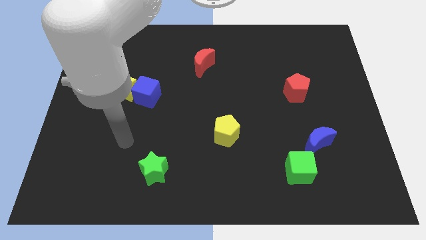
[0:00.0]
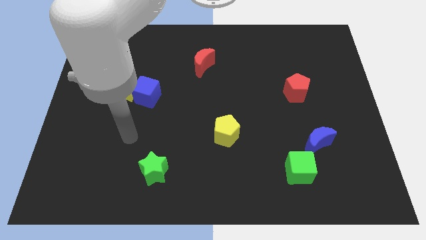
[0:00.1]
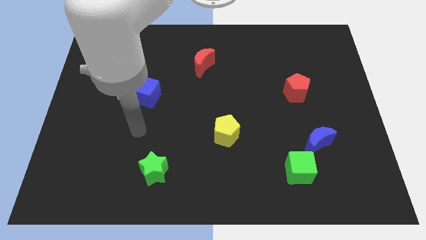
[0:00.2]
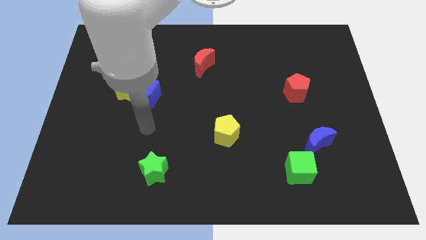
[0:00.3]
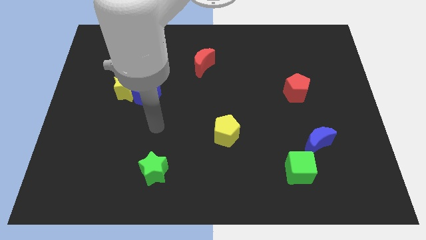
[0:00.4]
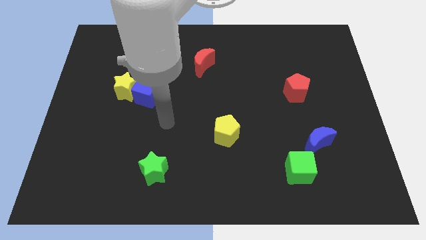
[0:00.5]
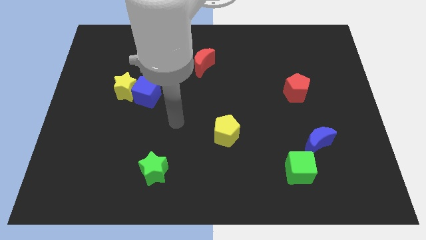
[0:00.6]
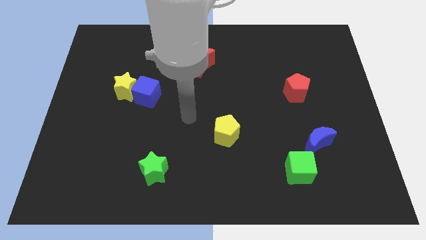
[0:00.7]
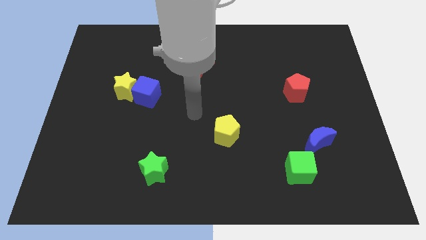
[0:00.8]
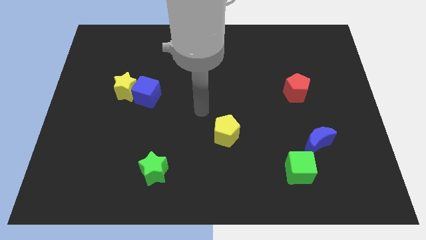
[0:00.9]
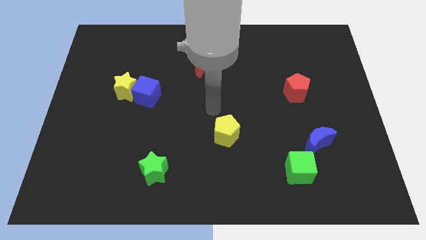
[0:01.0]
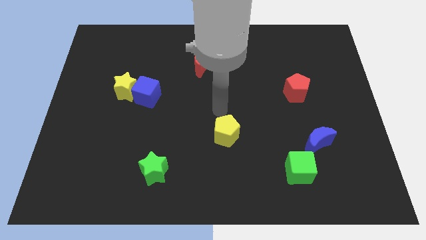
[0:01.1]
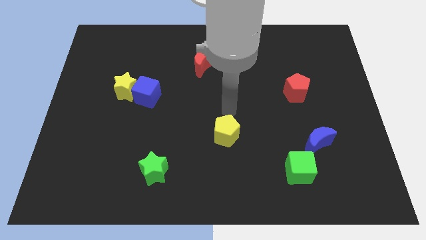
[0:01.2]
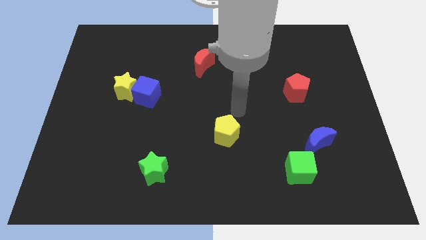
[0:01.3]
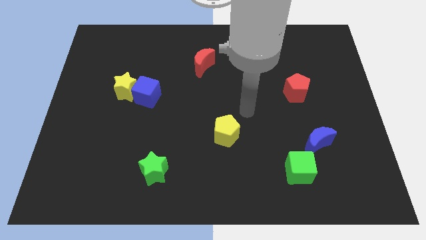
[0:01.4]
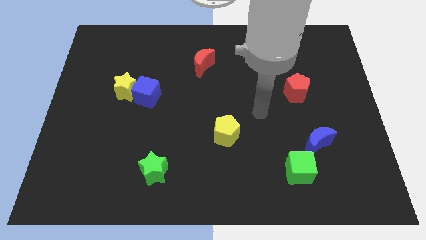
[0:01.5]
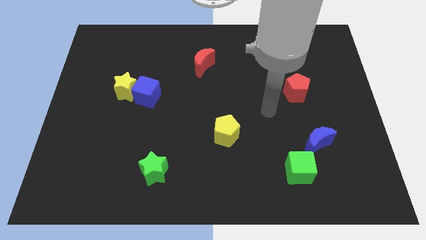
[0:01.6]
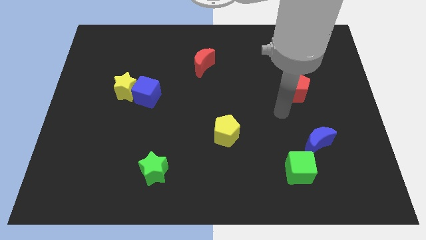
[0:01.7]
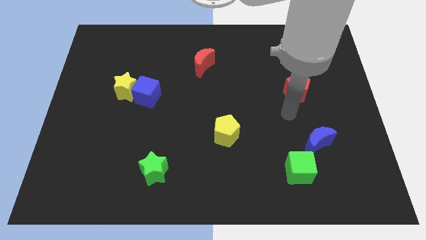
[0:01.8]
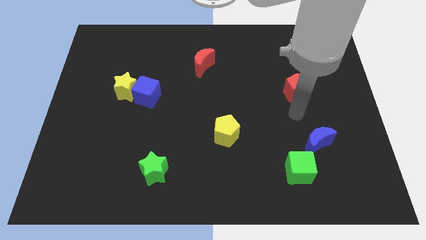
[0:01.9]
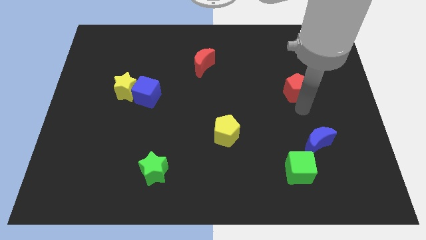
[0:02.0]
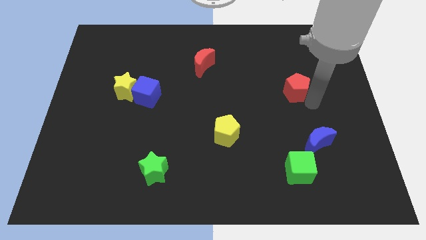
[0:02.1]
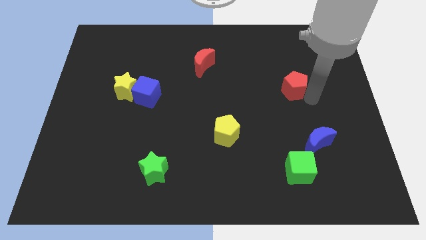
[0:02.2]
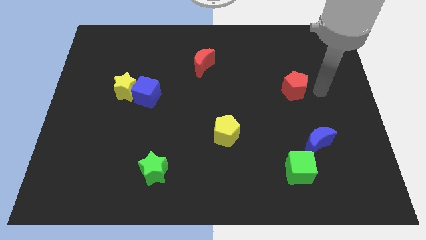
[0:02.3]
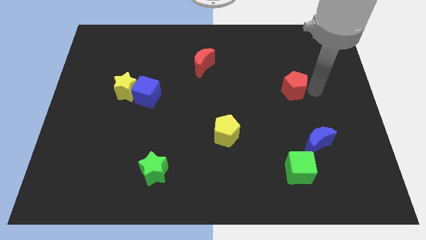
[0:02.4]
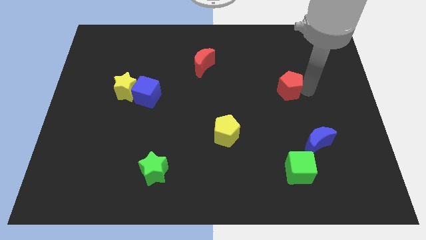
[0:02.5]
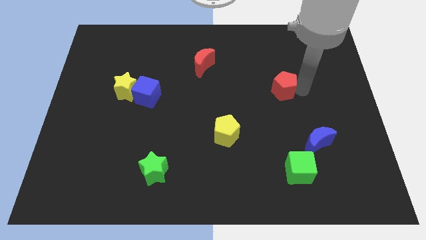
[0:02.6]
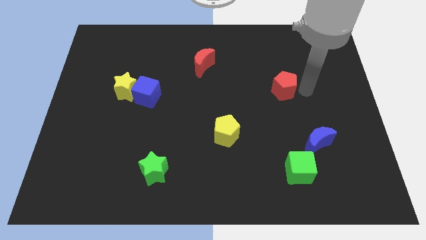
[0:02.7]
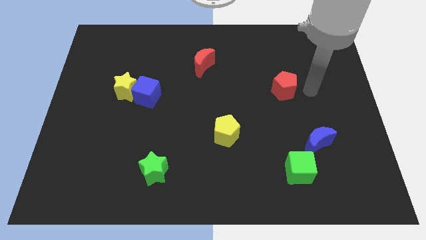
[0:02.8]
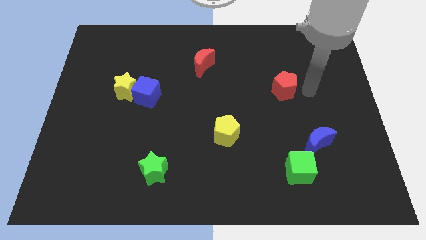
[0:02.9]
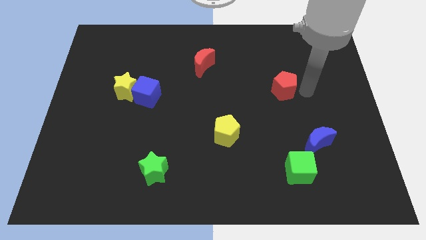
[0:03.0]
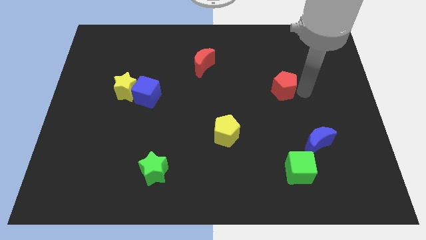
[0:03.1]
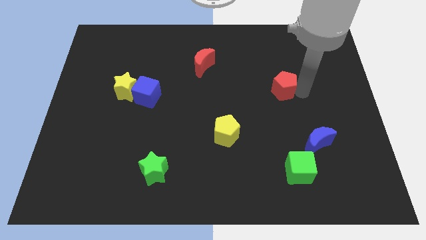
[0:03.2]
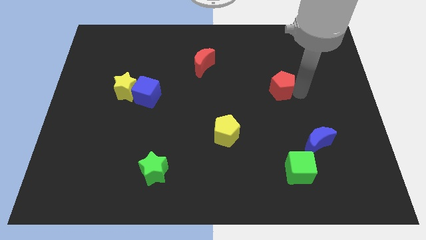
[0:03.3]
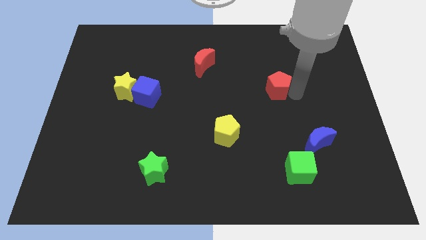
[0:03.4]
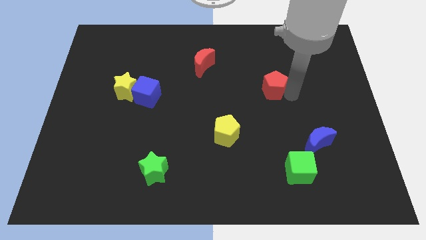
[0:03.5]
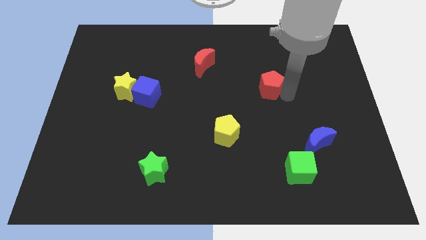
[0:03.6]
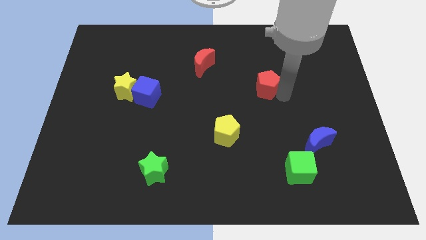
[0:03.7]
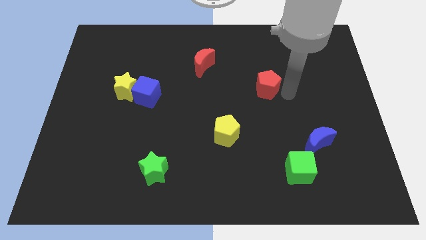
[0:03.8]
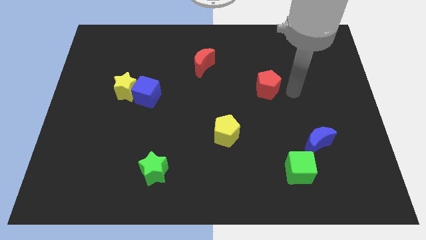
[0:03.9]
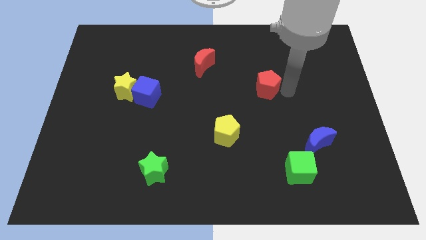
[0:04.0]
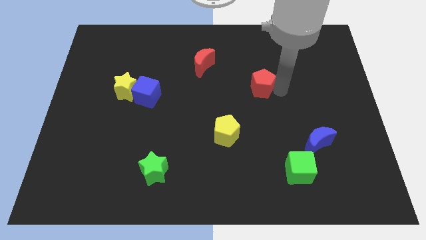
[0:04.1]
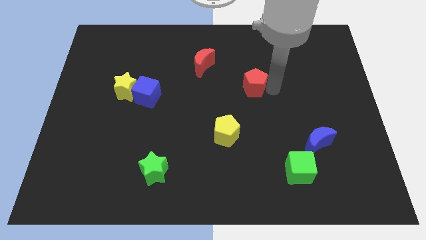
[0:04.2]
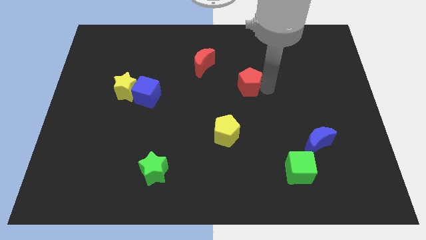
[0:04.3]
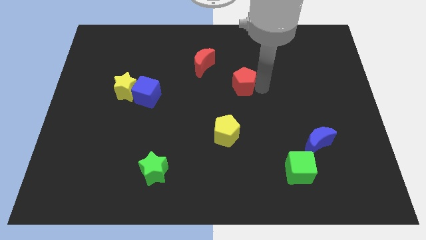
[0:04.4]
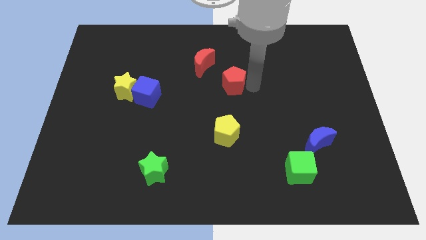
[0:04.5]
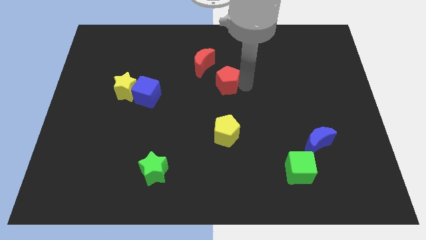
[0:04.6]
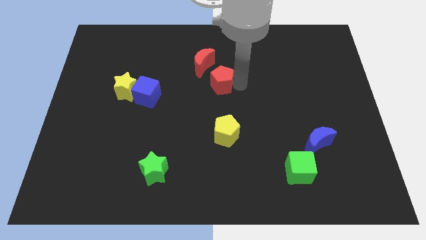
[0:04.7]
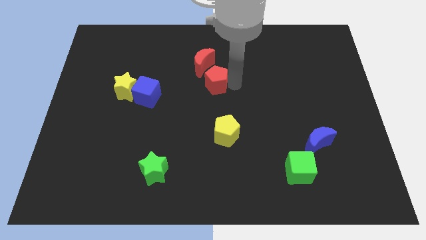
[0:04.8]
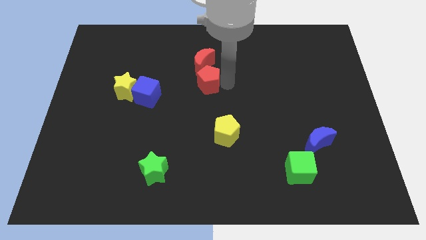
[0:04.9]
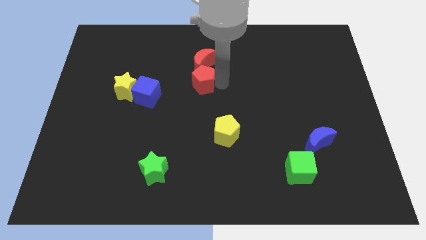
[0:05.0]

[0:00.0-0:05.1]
put the red pentagon to the bottom left side of the red moon

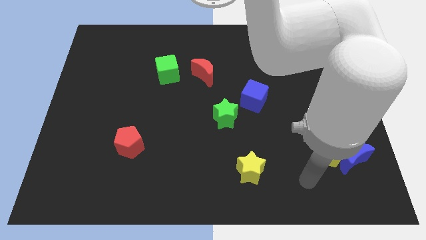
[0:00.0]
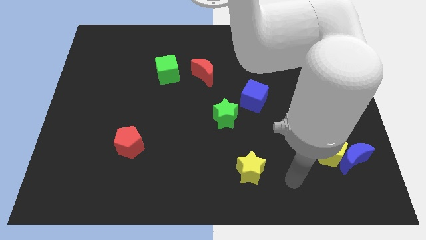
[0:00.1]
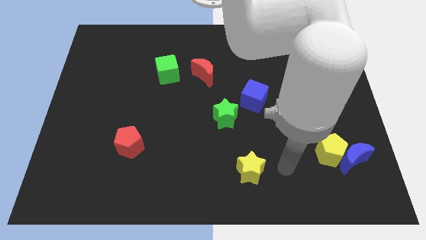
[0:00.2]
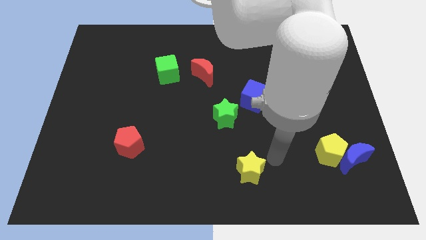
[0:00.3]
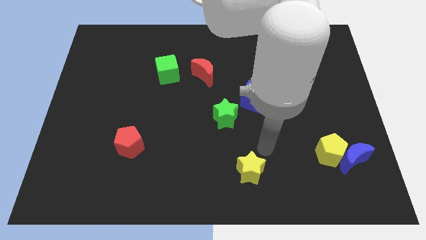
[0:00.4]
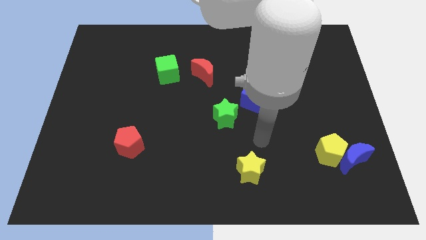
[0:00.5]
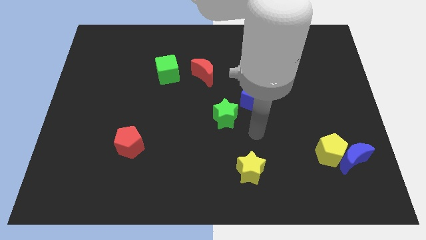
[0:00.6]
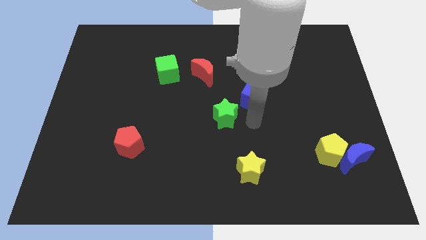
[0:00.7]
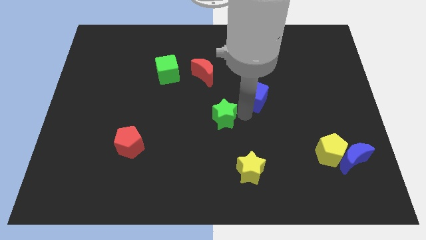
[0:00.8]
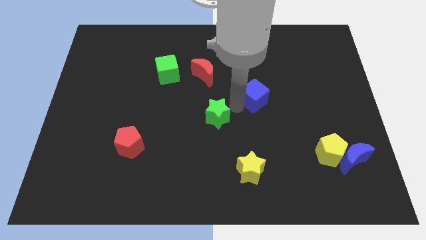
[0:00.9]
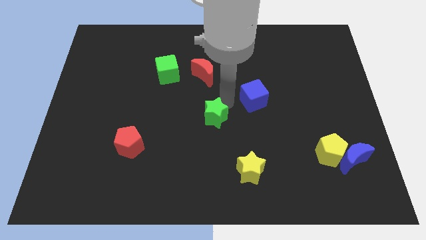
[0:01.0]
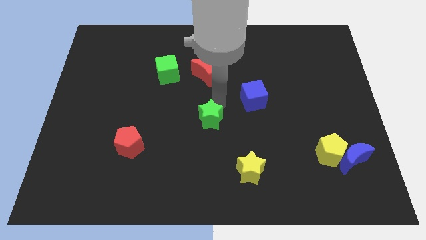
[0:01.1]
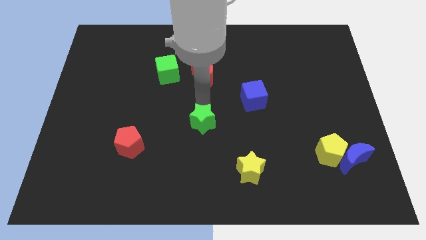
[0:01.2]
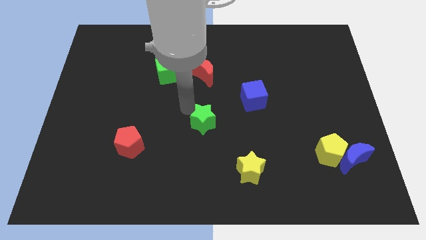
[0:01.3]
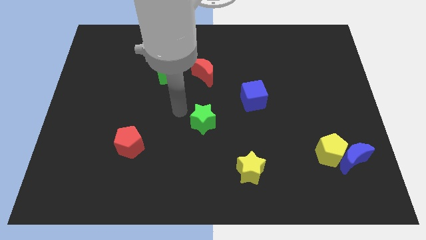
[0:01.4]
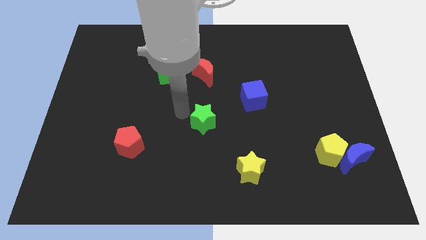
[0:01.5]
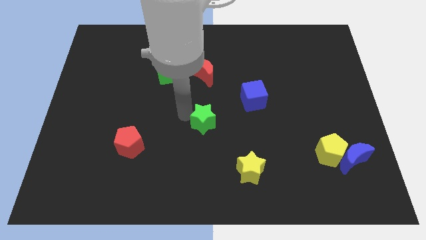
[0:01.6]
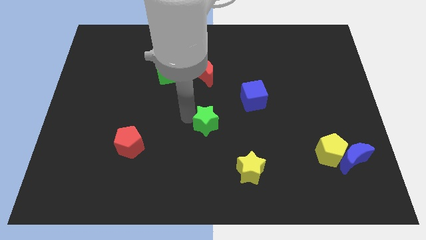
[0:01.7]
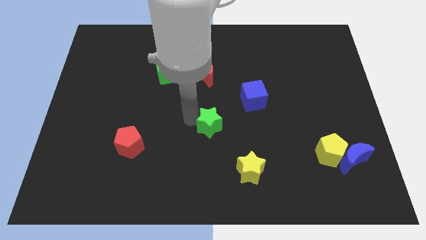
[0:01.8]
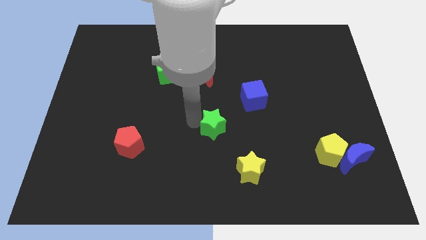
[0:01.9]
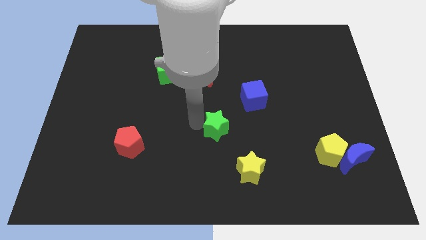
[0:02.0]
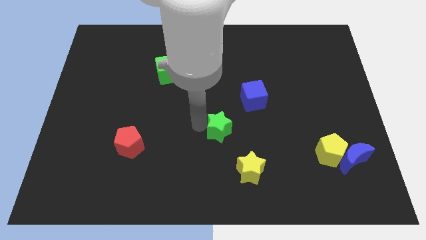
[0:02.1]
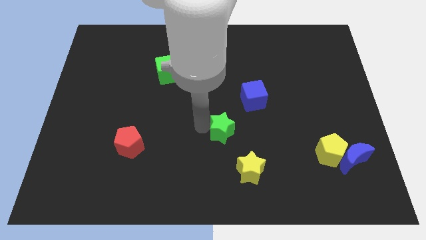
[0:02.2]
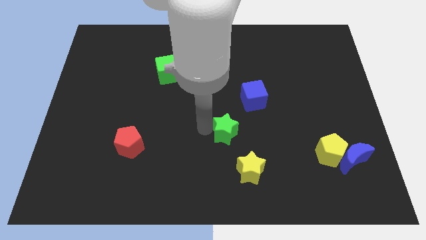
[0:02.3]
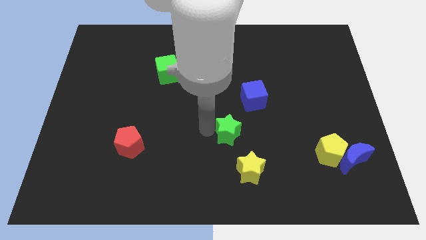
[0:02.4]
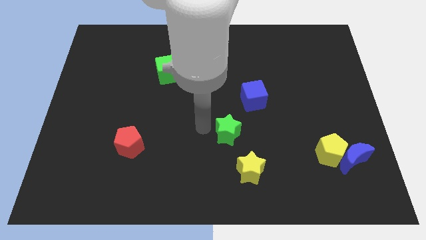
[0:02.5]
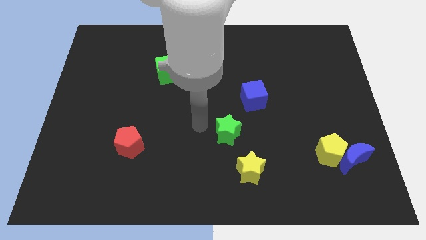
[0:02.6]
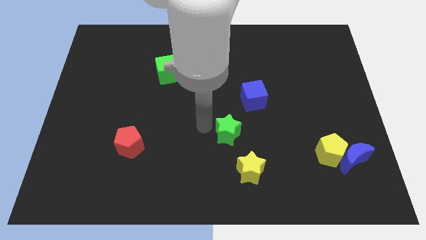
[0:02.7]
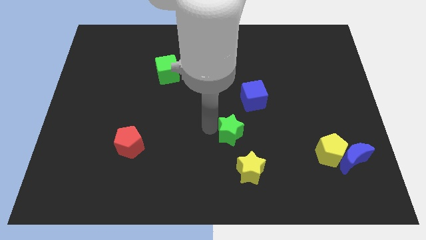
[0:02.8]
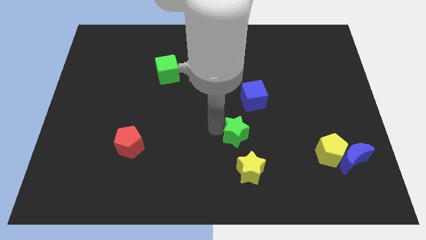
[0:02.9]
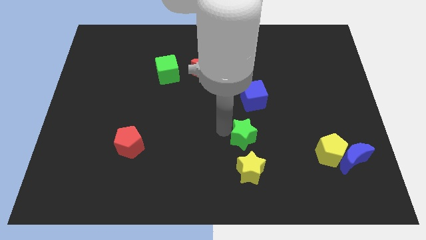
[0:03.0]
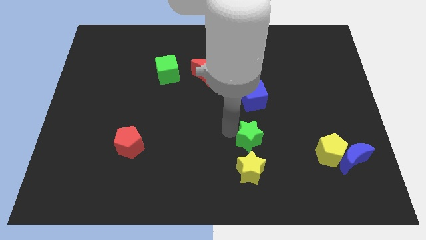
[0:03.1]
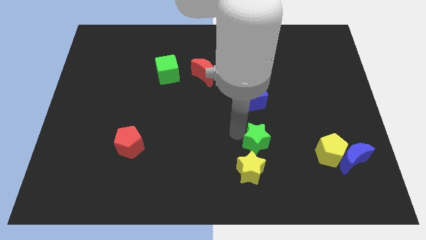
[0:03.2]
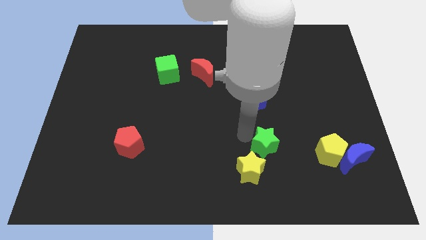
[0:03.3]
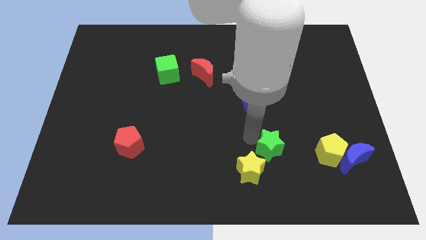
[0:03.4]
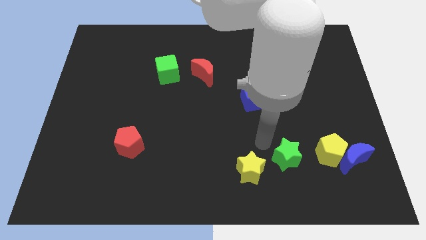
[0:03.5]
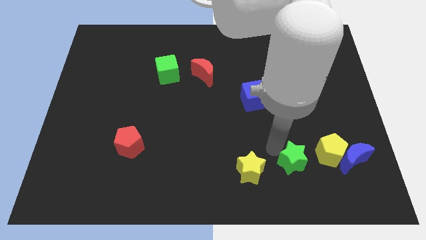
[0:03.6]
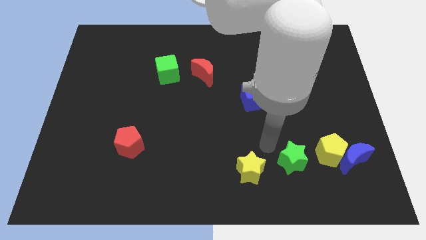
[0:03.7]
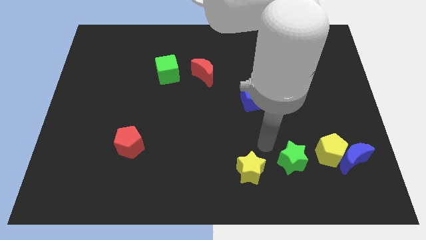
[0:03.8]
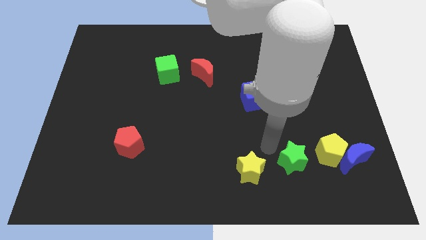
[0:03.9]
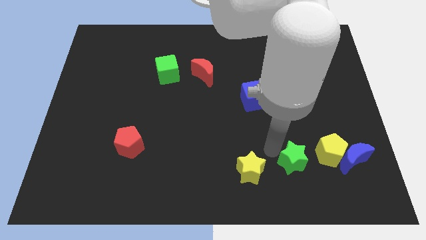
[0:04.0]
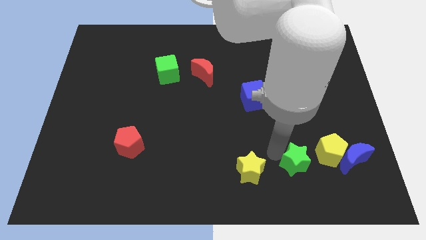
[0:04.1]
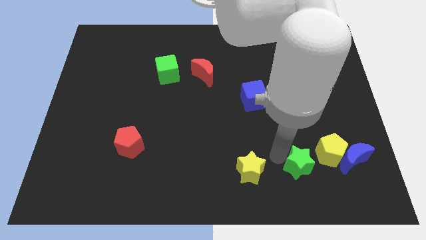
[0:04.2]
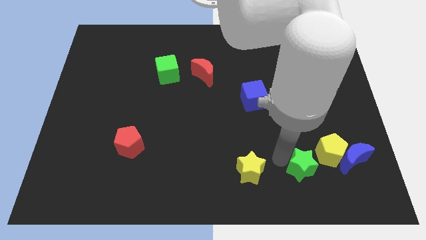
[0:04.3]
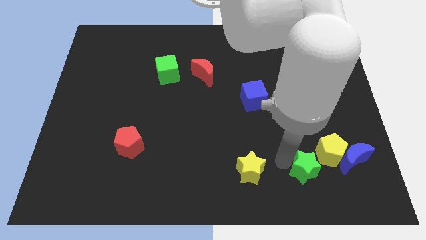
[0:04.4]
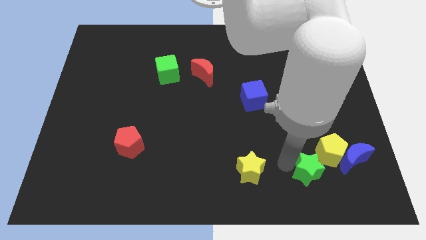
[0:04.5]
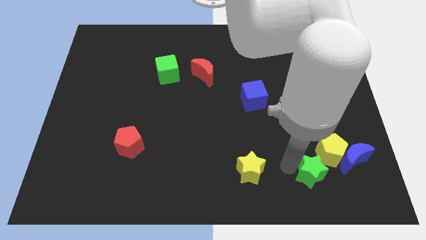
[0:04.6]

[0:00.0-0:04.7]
put the green star to the bottom left side of the blue moon
